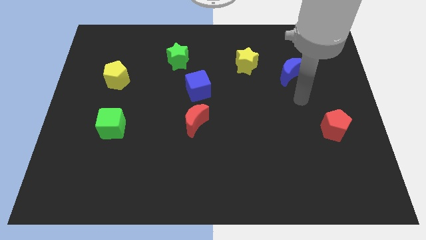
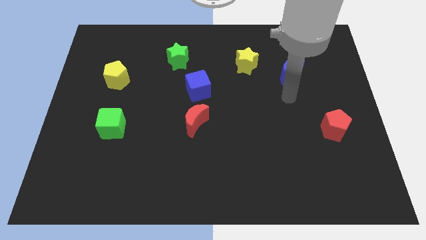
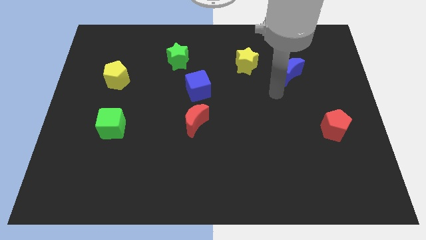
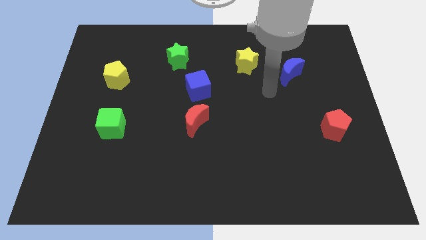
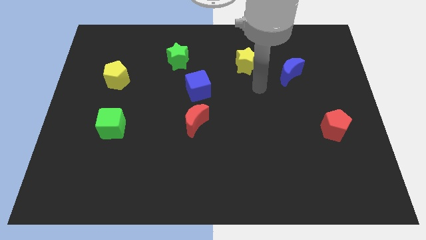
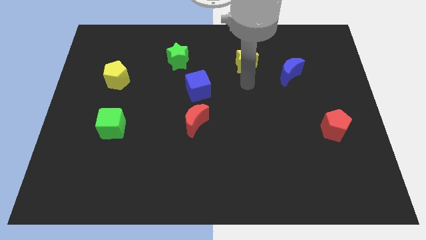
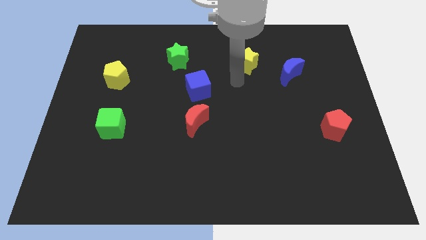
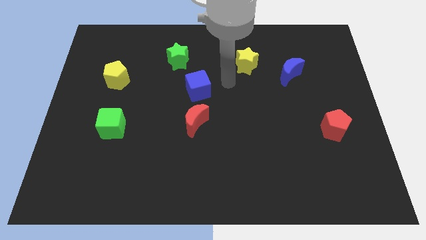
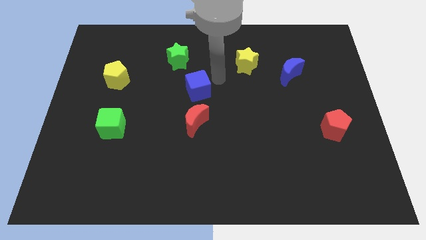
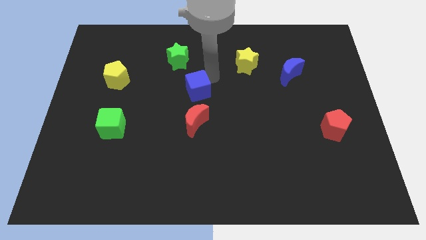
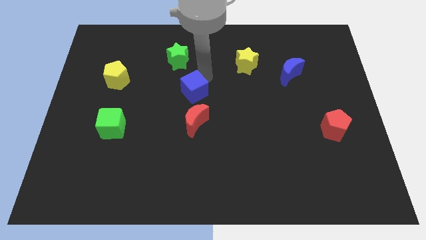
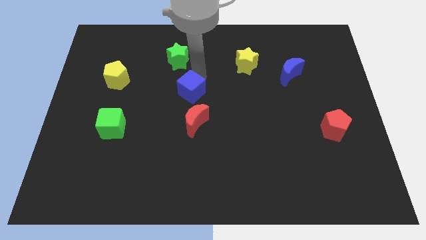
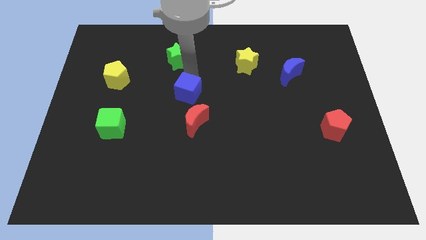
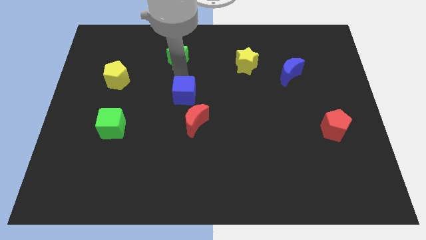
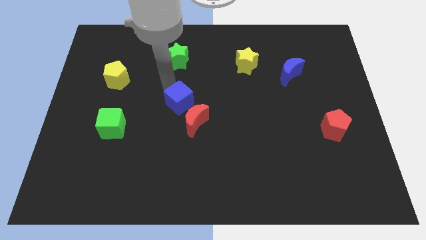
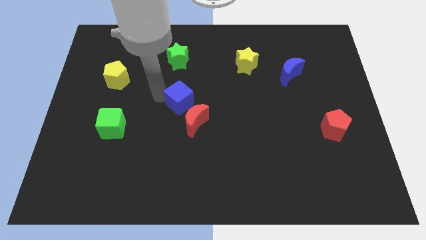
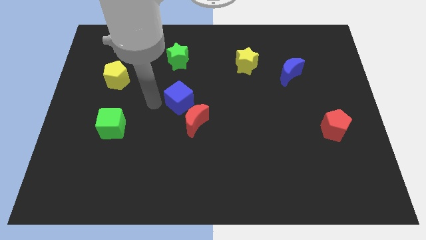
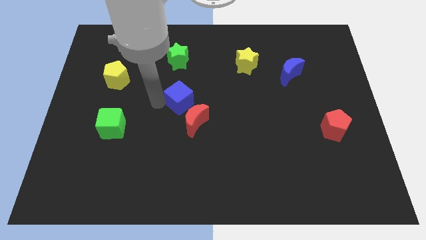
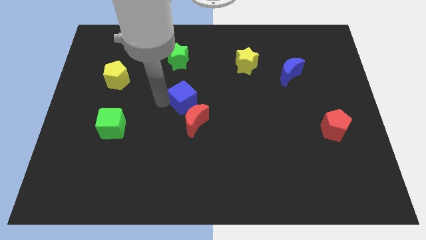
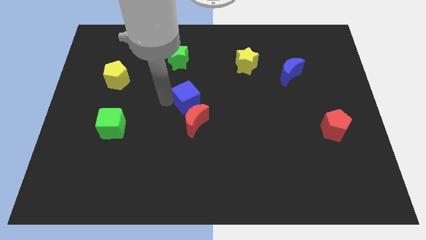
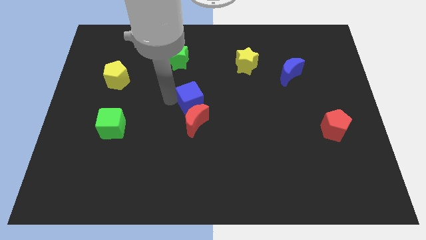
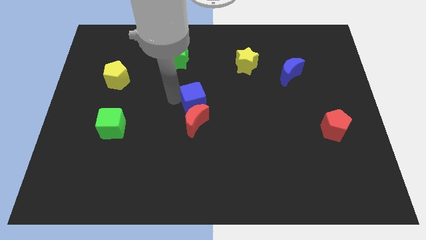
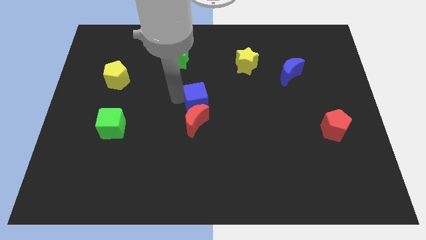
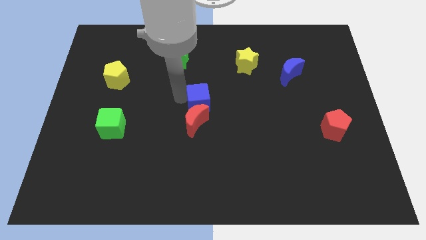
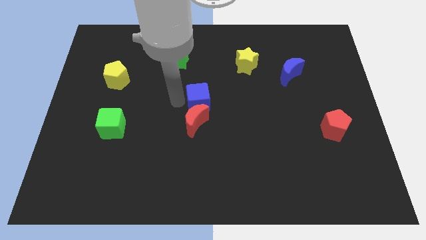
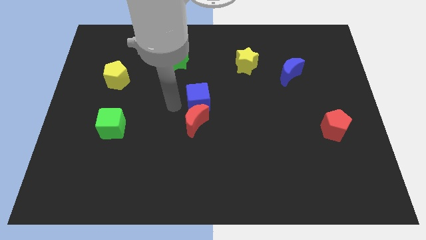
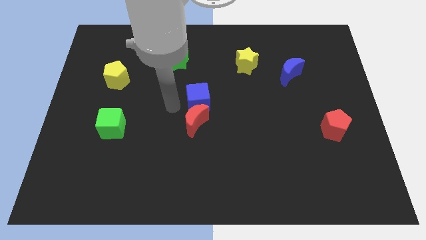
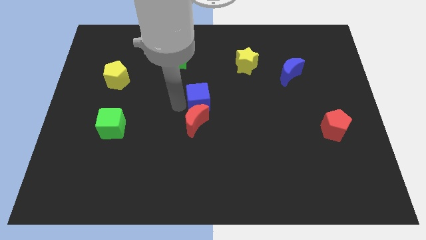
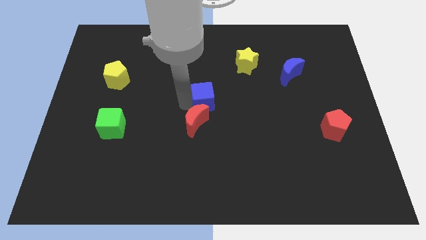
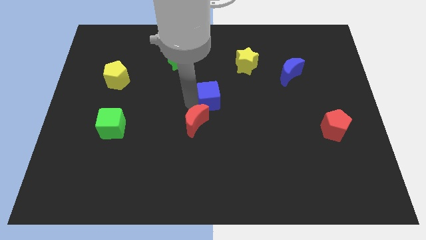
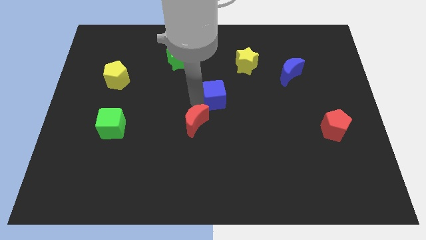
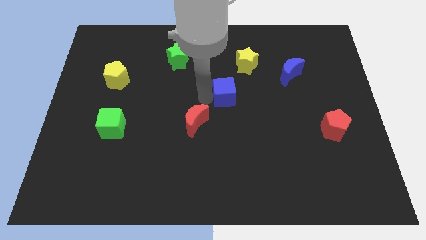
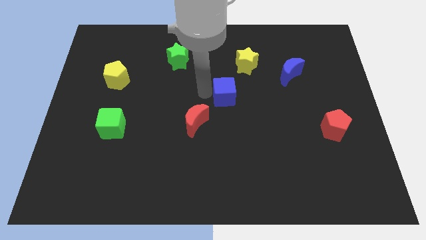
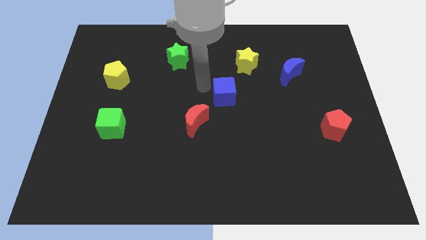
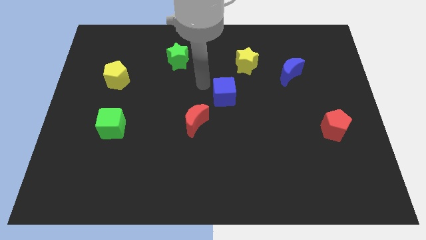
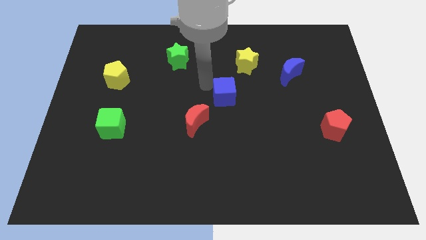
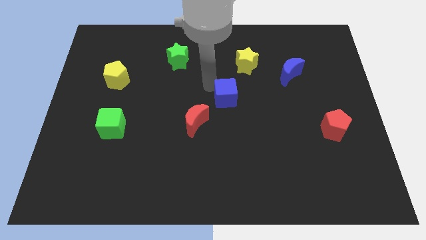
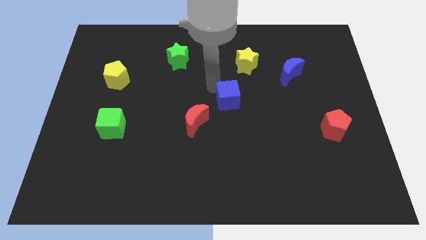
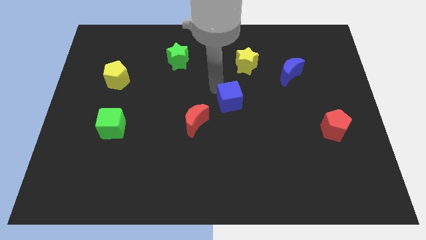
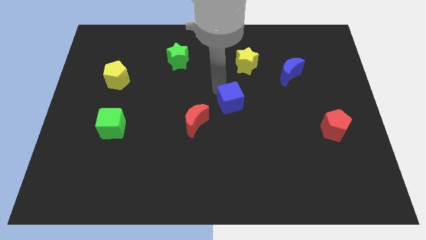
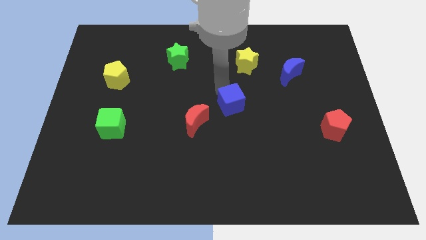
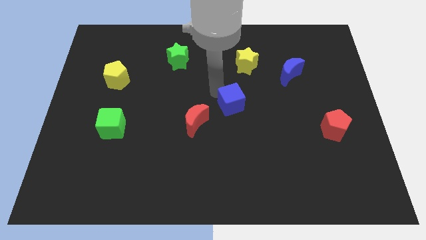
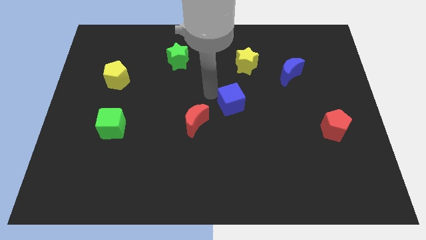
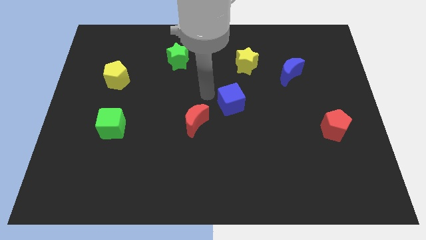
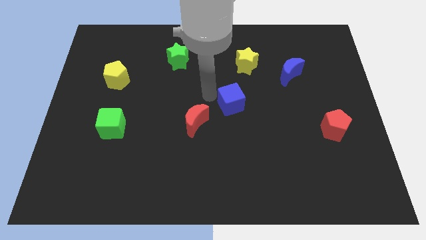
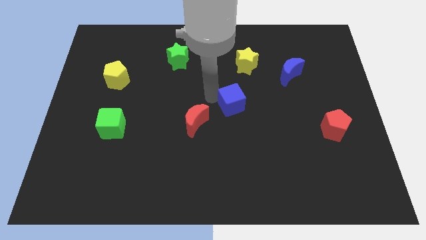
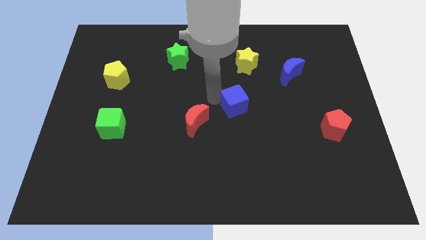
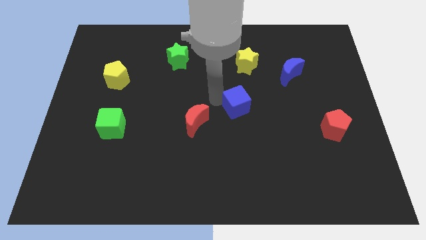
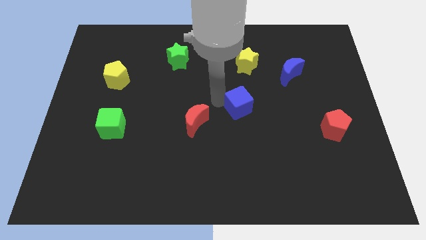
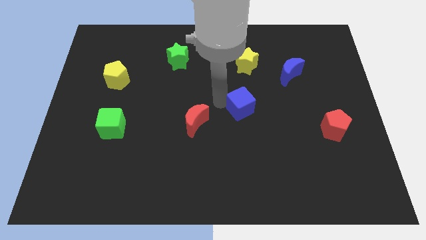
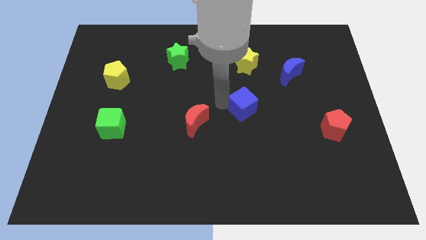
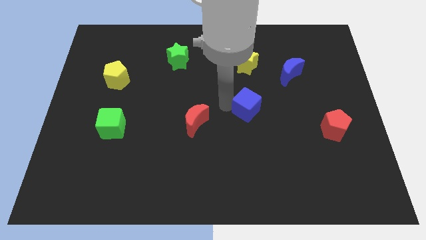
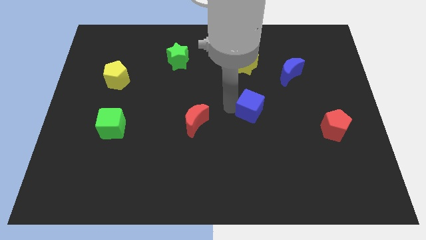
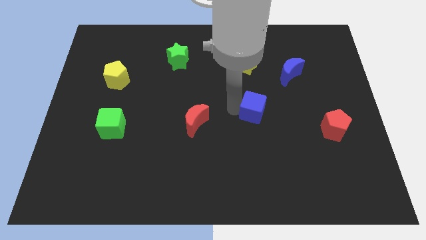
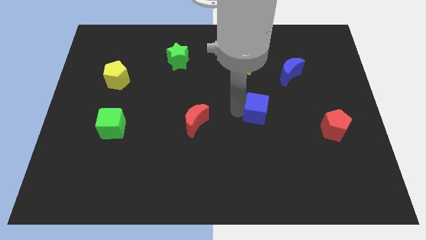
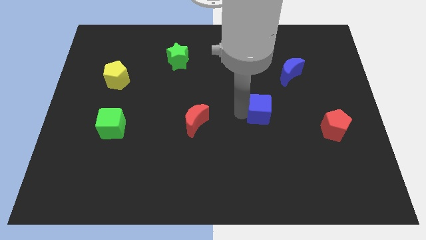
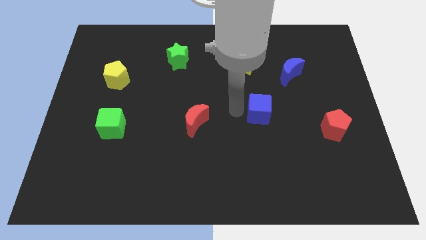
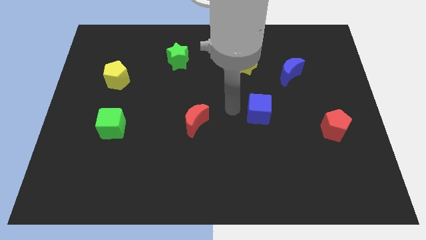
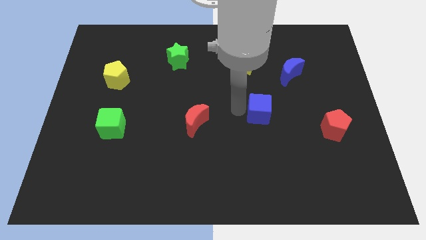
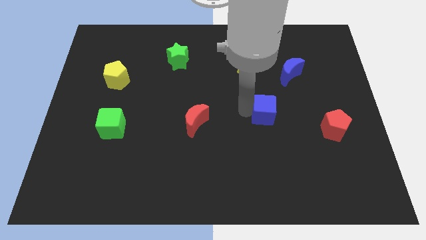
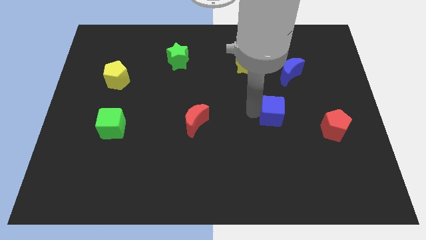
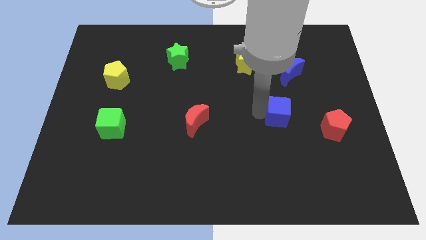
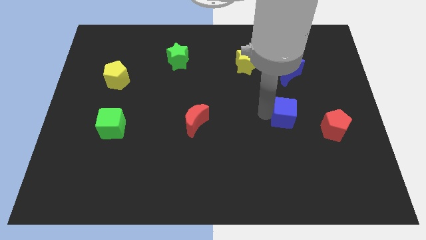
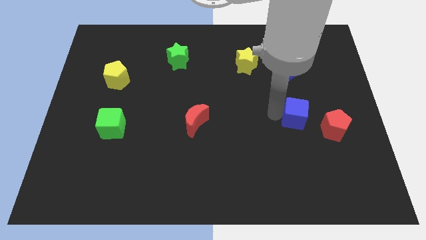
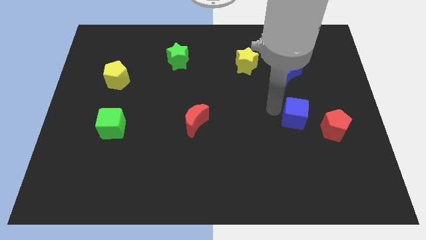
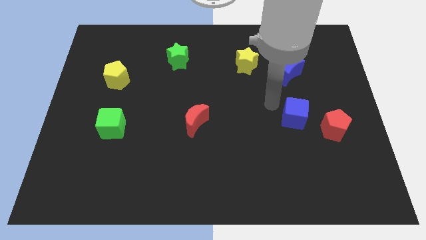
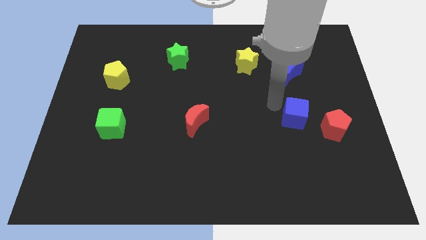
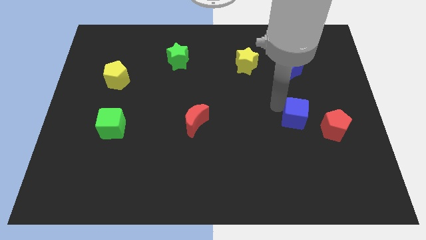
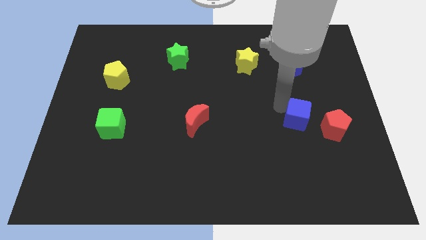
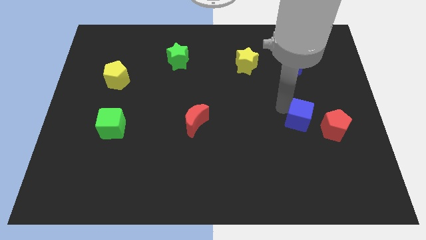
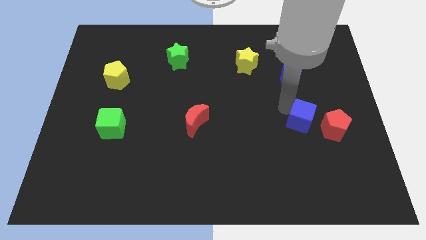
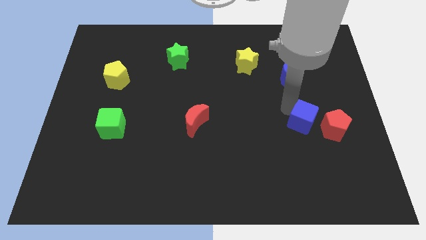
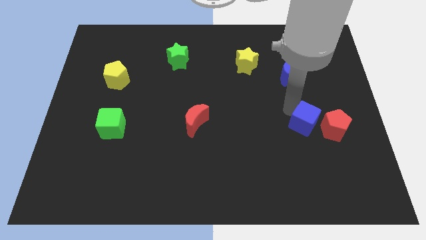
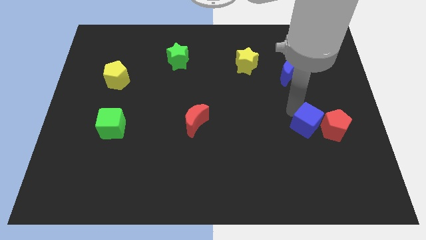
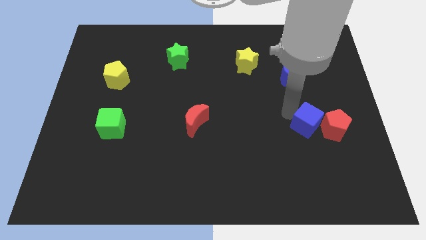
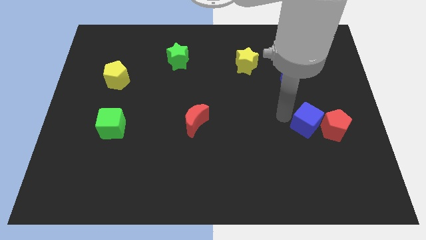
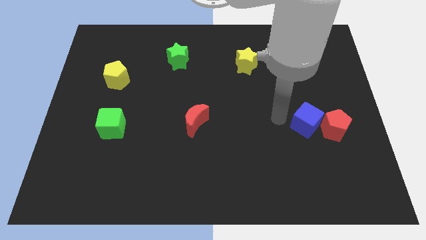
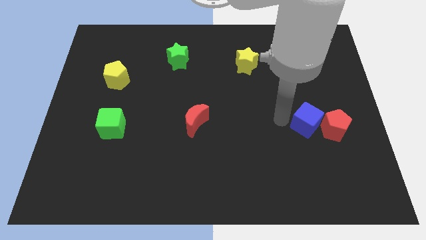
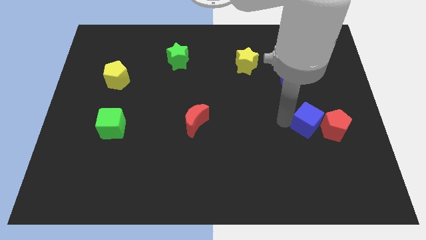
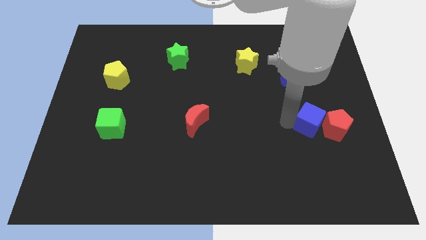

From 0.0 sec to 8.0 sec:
push the blue cube to the red pentagon
